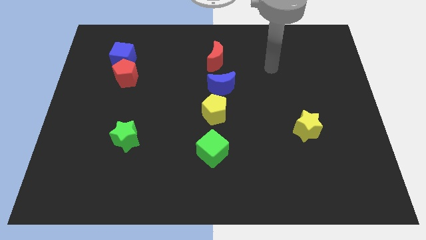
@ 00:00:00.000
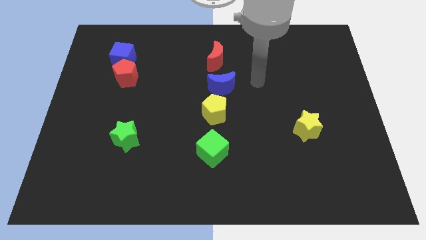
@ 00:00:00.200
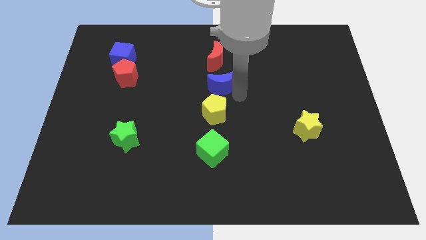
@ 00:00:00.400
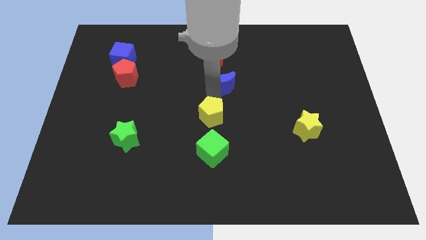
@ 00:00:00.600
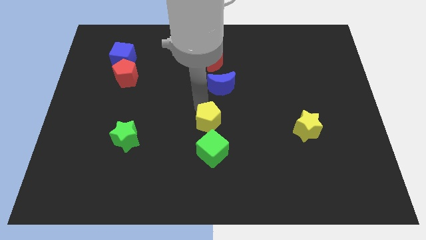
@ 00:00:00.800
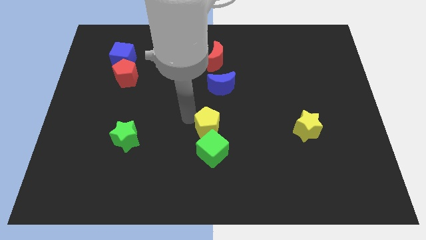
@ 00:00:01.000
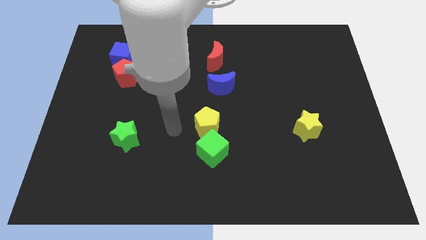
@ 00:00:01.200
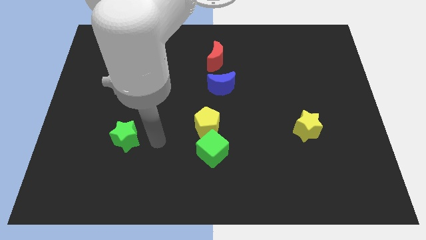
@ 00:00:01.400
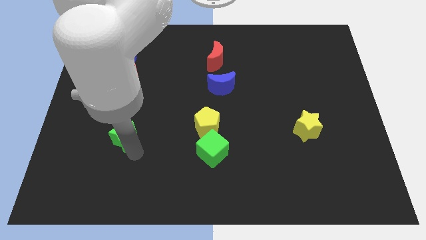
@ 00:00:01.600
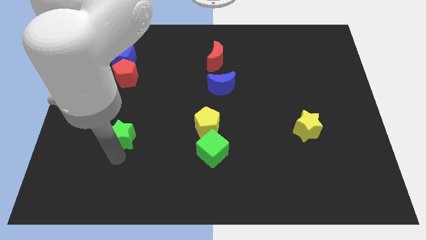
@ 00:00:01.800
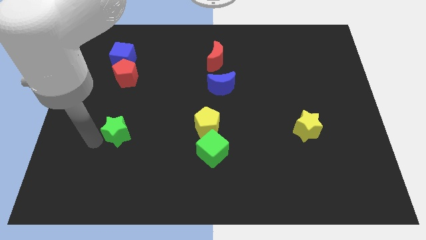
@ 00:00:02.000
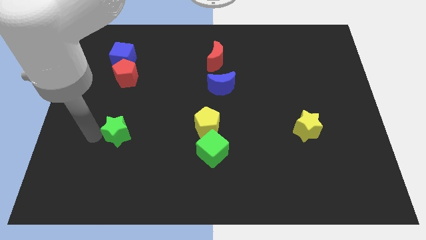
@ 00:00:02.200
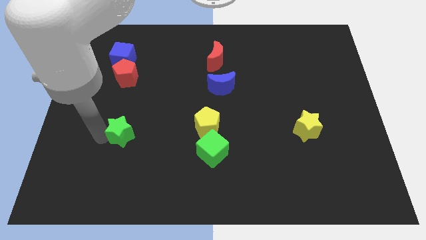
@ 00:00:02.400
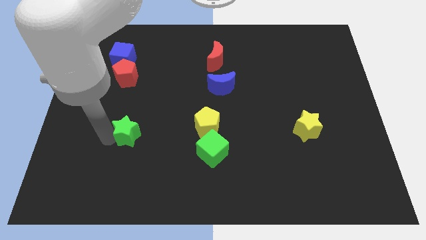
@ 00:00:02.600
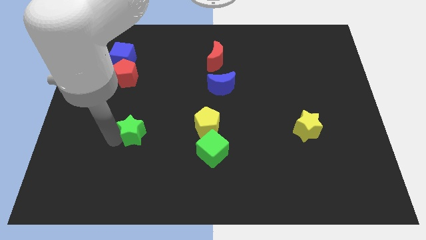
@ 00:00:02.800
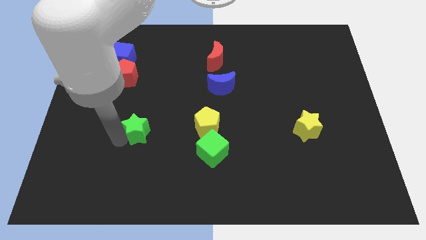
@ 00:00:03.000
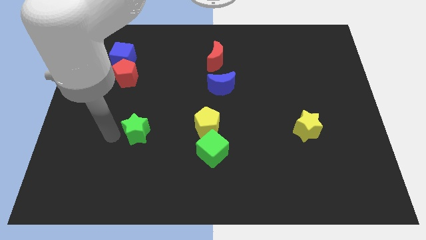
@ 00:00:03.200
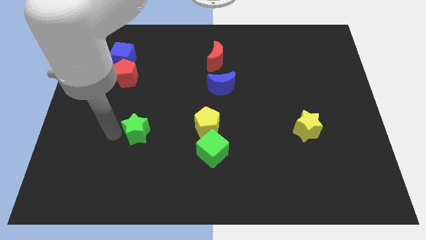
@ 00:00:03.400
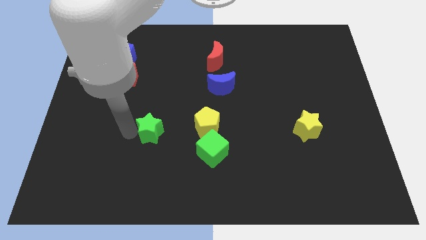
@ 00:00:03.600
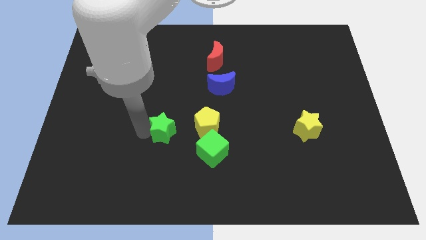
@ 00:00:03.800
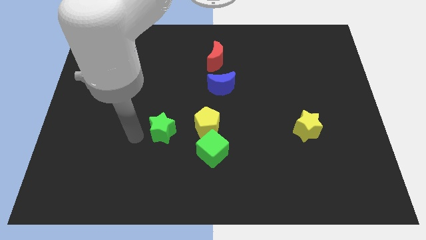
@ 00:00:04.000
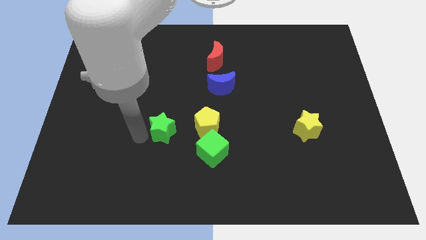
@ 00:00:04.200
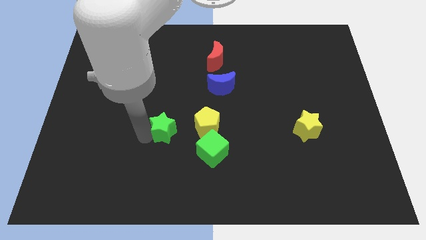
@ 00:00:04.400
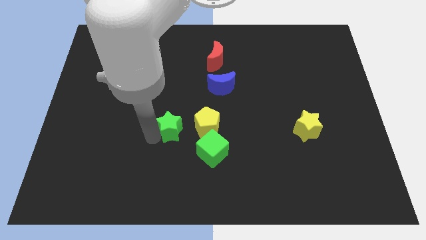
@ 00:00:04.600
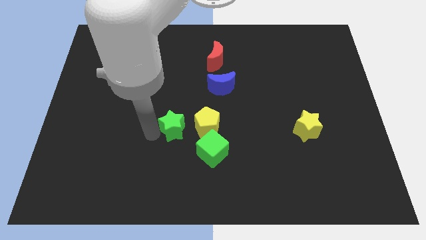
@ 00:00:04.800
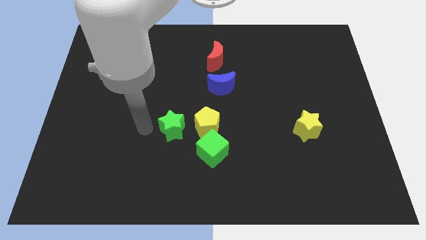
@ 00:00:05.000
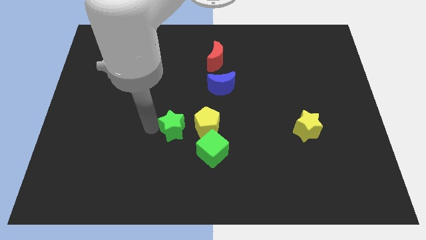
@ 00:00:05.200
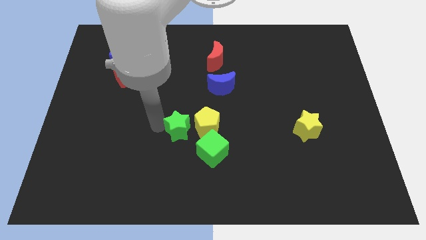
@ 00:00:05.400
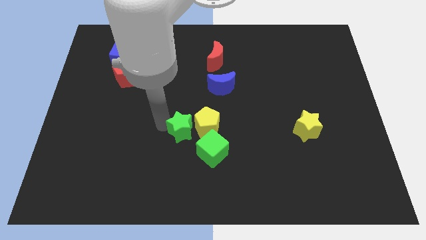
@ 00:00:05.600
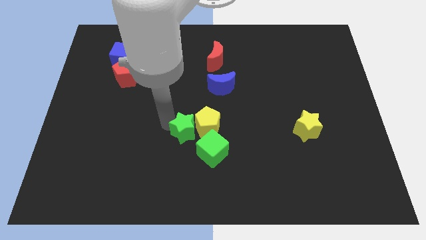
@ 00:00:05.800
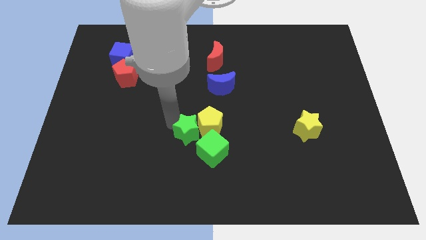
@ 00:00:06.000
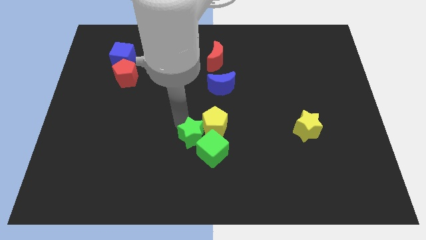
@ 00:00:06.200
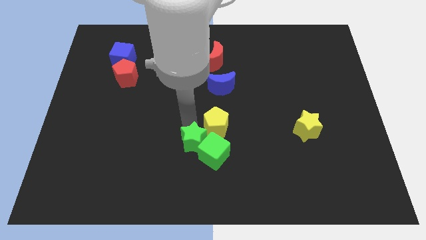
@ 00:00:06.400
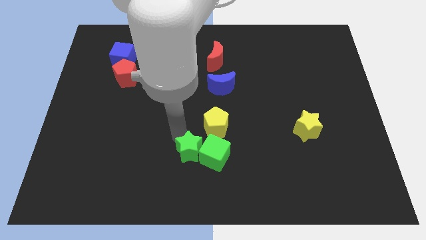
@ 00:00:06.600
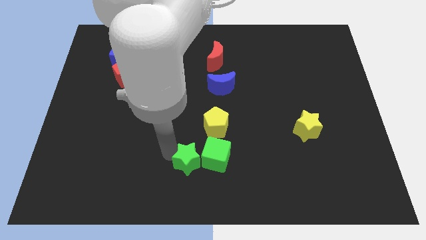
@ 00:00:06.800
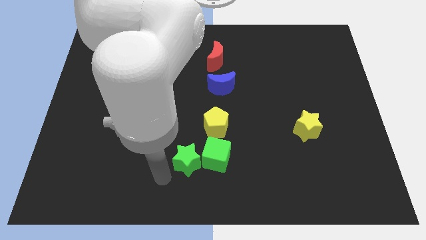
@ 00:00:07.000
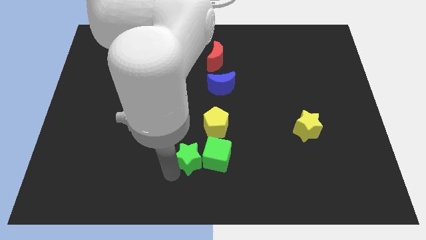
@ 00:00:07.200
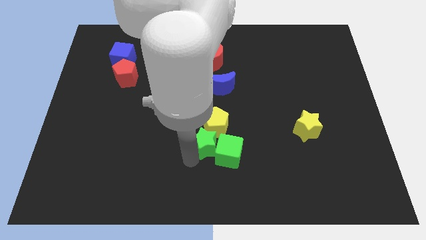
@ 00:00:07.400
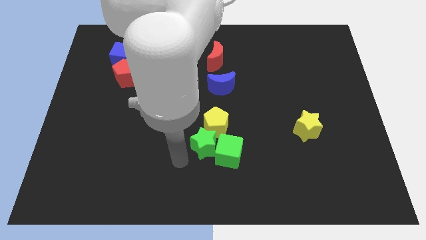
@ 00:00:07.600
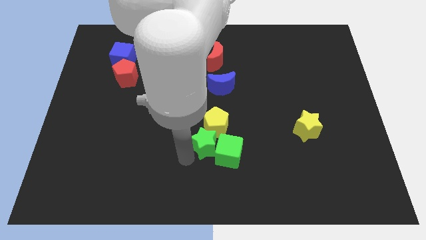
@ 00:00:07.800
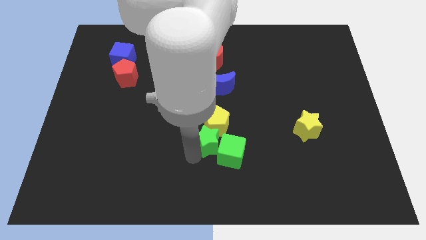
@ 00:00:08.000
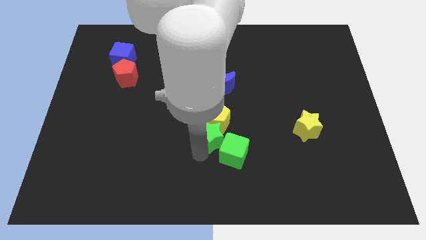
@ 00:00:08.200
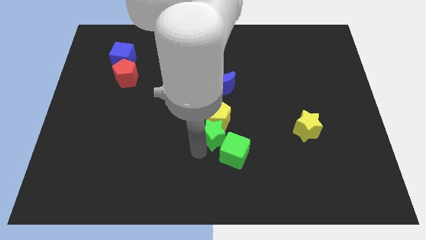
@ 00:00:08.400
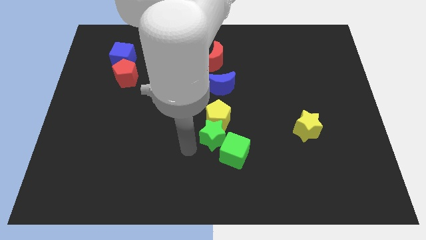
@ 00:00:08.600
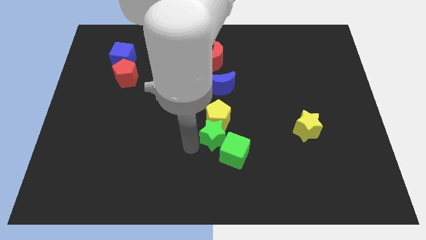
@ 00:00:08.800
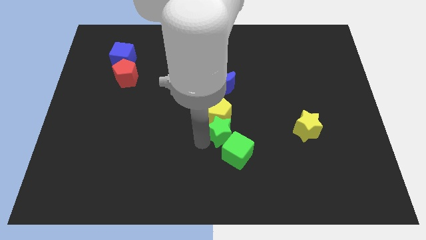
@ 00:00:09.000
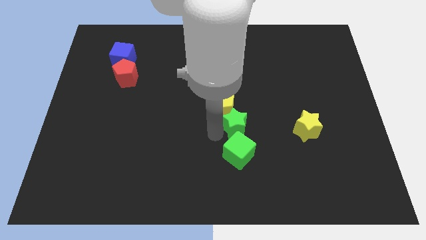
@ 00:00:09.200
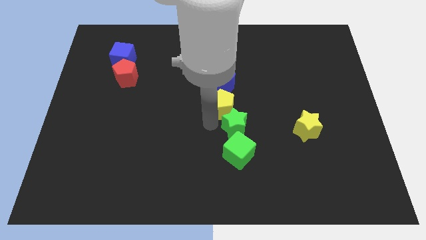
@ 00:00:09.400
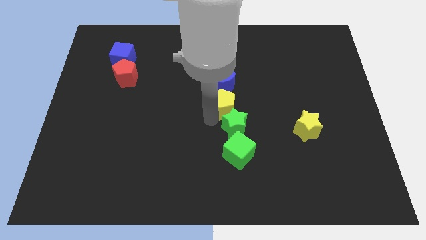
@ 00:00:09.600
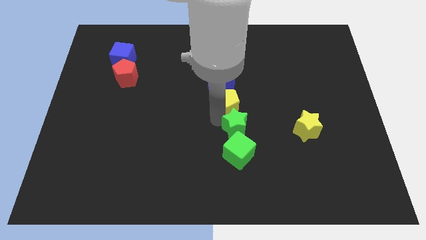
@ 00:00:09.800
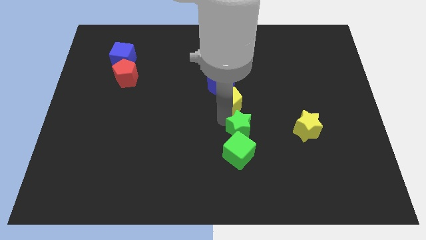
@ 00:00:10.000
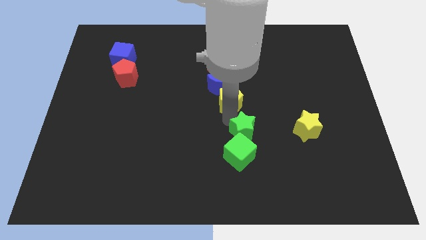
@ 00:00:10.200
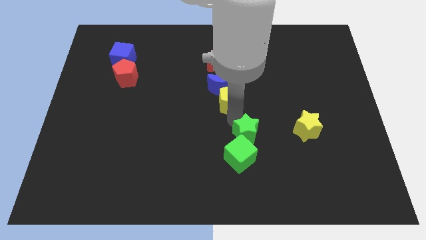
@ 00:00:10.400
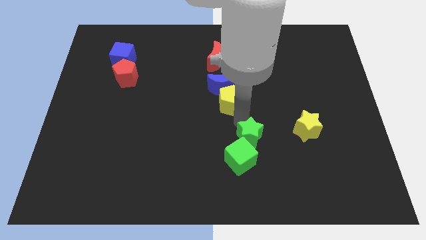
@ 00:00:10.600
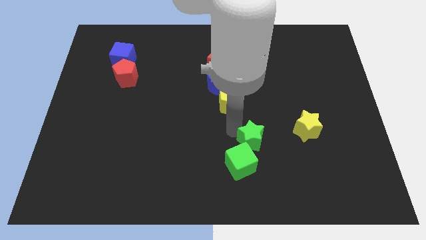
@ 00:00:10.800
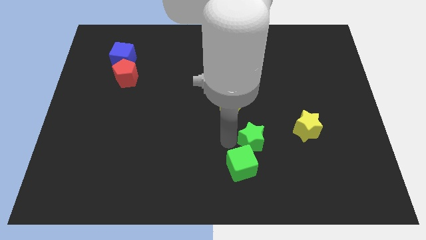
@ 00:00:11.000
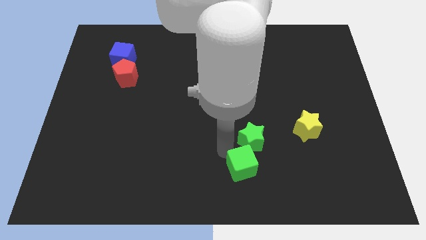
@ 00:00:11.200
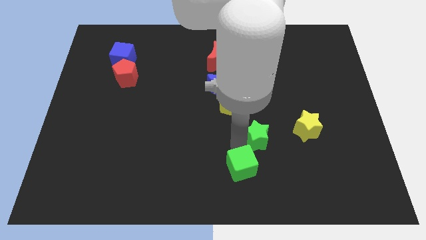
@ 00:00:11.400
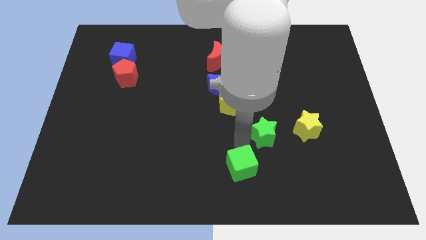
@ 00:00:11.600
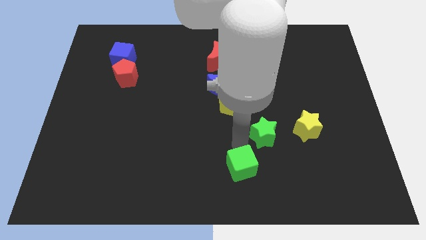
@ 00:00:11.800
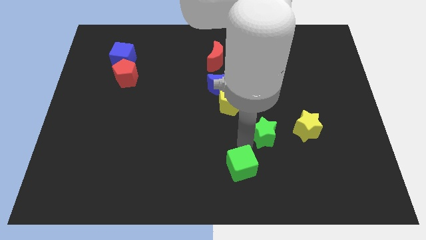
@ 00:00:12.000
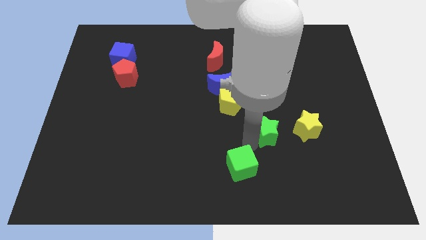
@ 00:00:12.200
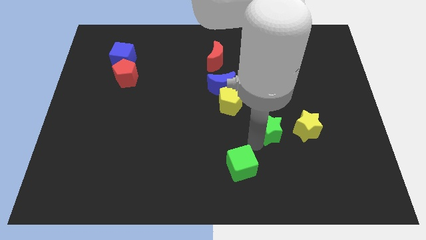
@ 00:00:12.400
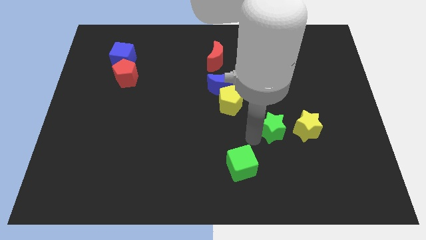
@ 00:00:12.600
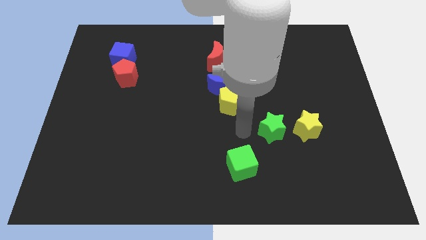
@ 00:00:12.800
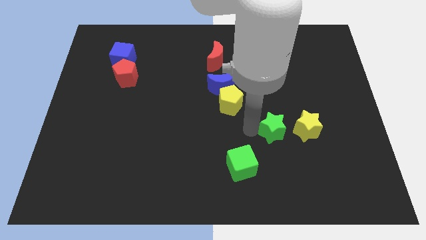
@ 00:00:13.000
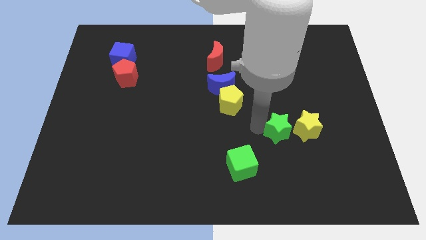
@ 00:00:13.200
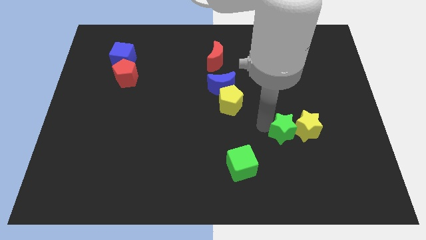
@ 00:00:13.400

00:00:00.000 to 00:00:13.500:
slide the green star towards the yellow star

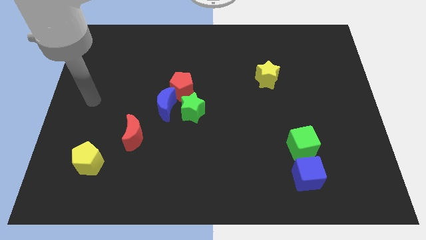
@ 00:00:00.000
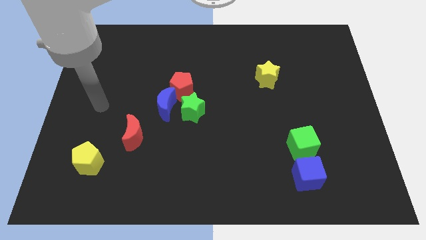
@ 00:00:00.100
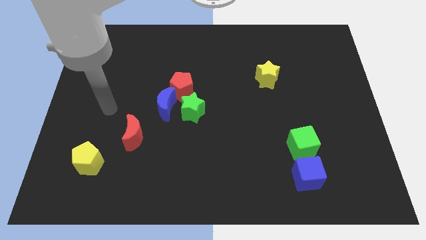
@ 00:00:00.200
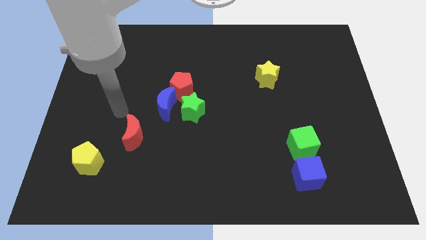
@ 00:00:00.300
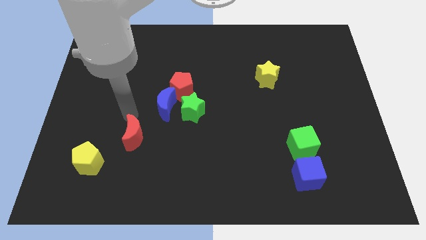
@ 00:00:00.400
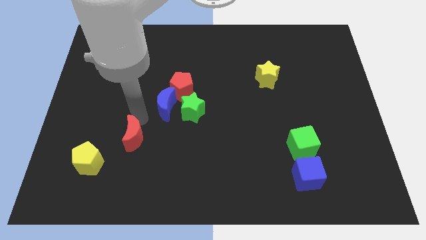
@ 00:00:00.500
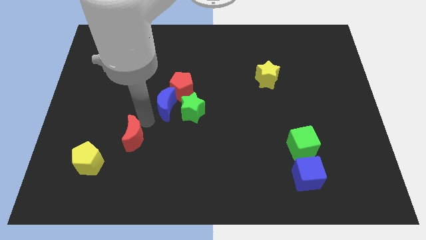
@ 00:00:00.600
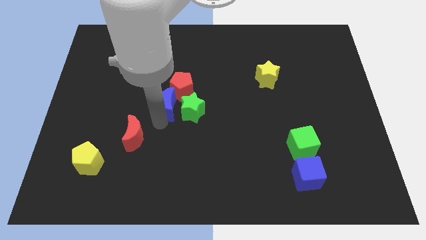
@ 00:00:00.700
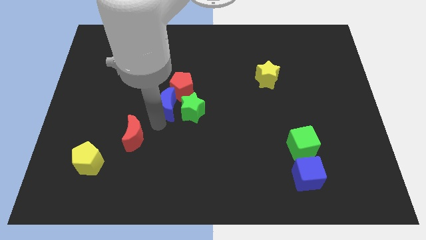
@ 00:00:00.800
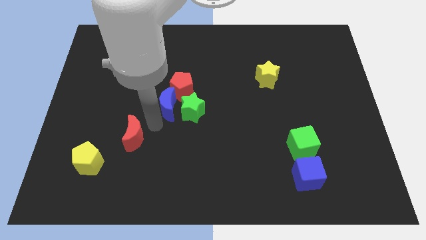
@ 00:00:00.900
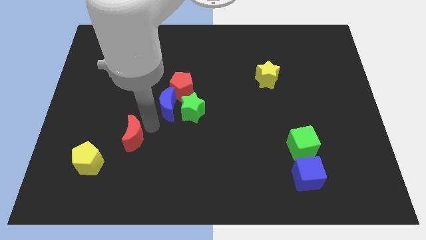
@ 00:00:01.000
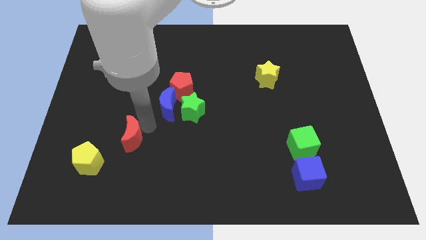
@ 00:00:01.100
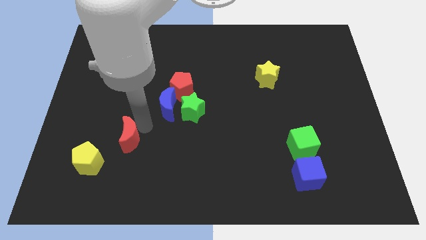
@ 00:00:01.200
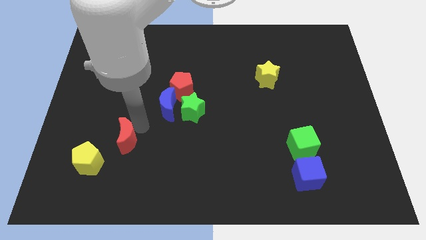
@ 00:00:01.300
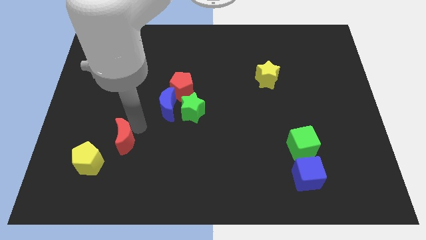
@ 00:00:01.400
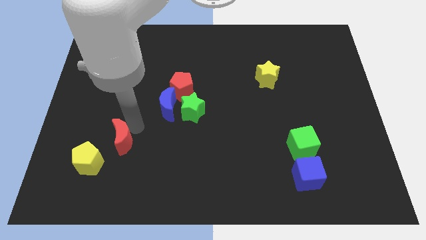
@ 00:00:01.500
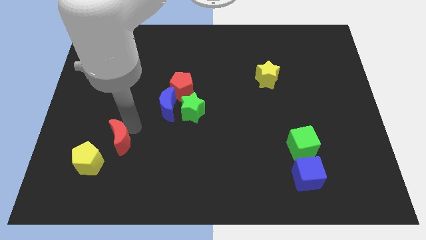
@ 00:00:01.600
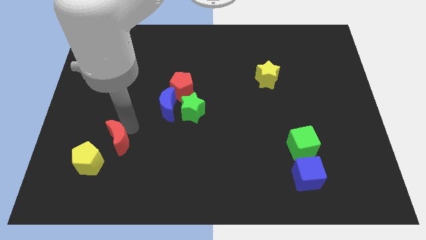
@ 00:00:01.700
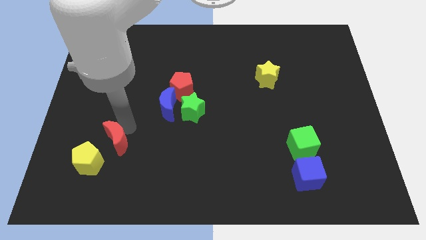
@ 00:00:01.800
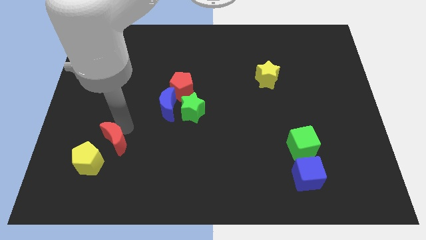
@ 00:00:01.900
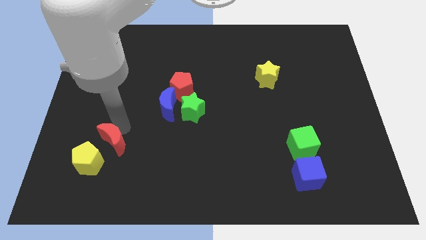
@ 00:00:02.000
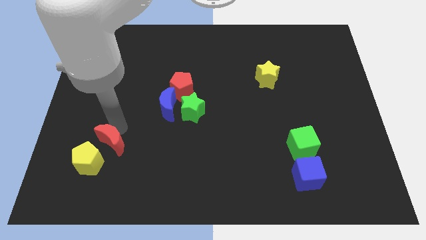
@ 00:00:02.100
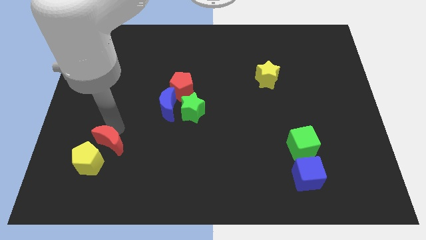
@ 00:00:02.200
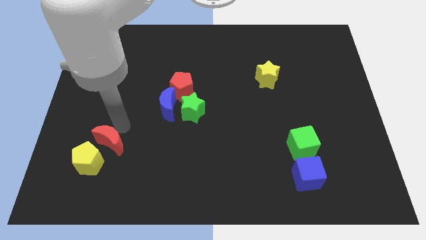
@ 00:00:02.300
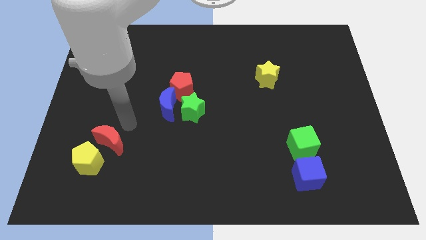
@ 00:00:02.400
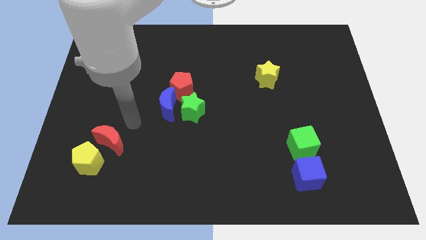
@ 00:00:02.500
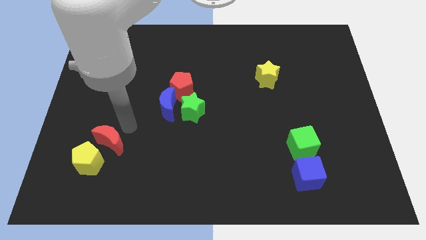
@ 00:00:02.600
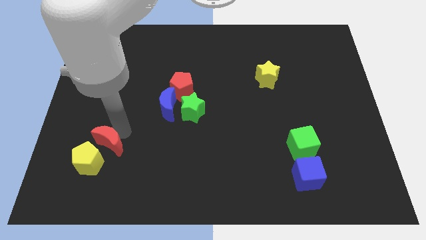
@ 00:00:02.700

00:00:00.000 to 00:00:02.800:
move the red moon next to the yellow pentagon
